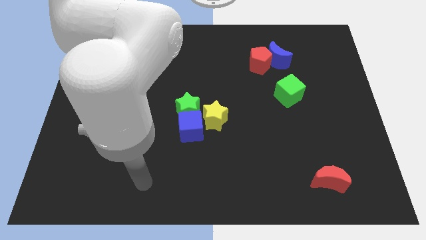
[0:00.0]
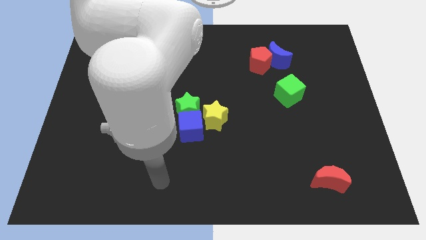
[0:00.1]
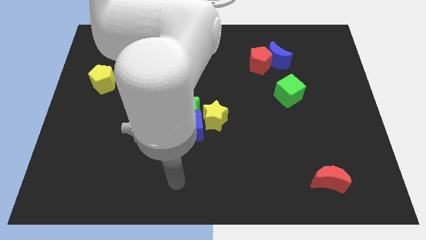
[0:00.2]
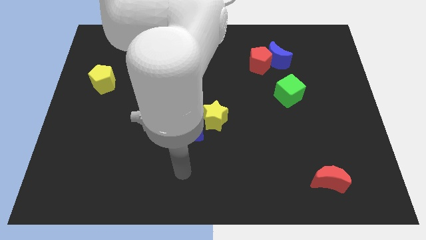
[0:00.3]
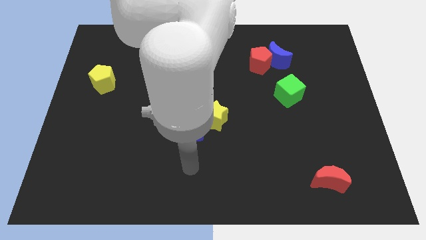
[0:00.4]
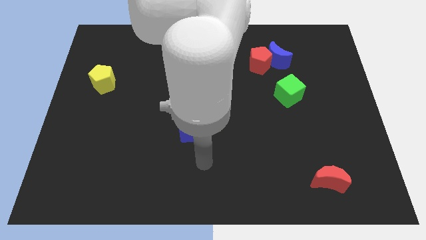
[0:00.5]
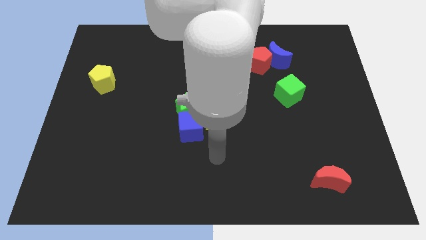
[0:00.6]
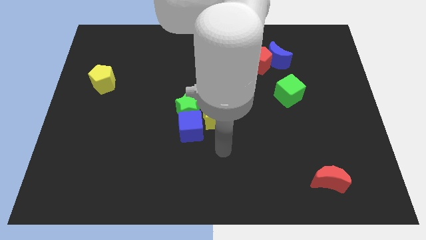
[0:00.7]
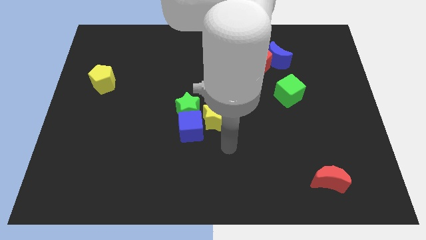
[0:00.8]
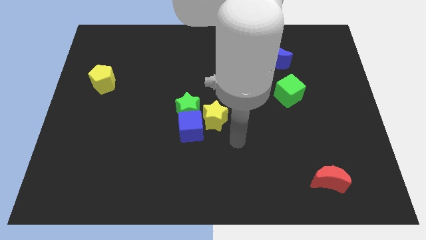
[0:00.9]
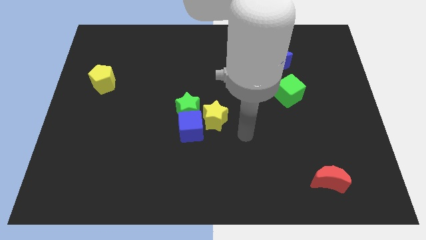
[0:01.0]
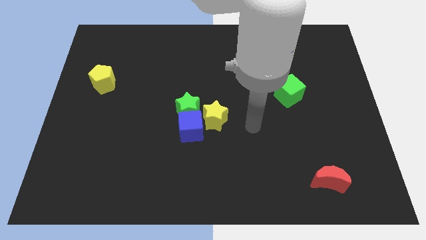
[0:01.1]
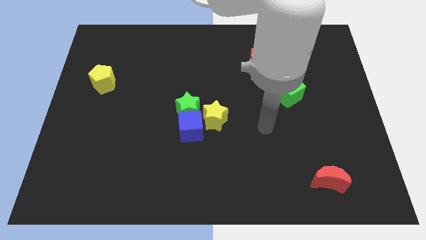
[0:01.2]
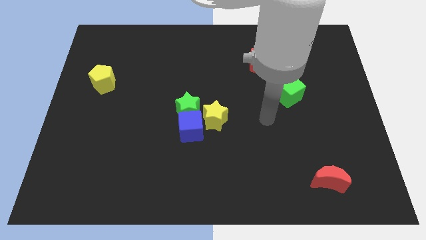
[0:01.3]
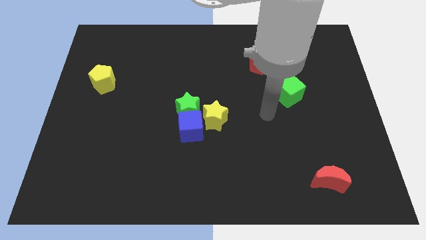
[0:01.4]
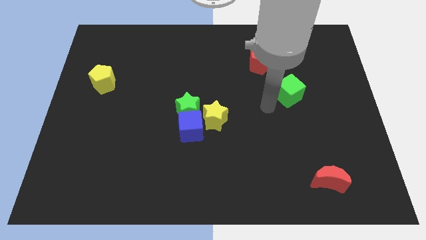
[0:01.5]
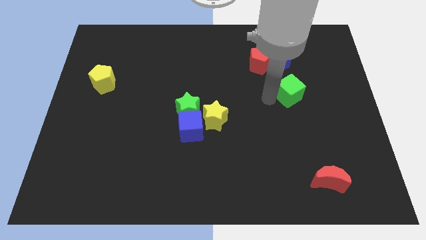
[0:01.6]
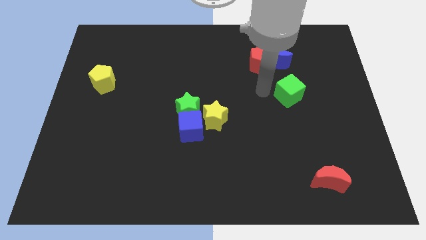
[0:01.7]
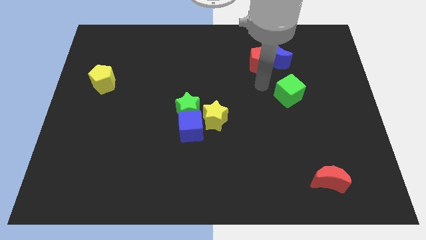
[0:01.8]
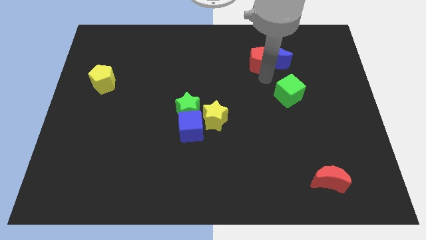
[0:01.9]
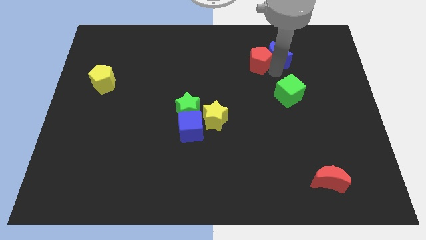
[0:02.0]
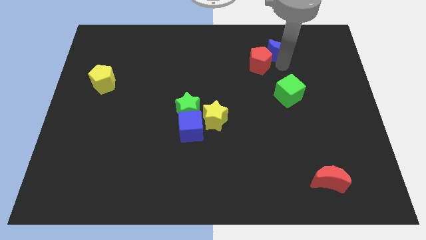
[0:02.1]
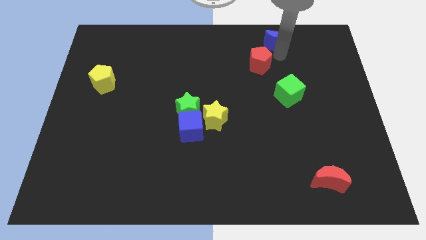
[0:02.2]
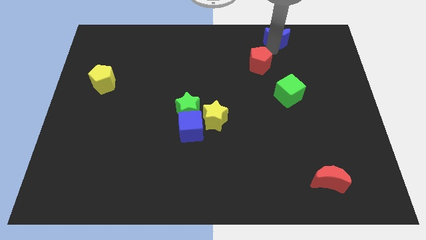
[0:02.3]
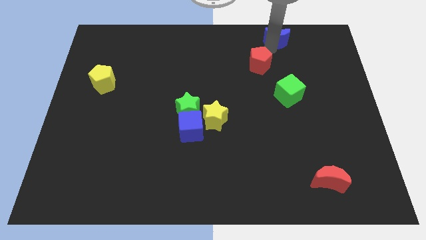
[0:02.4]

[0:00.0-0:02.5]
move the red pentagon away from the blue moon

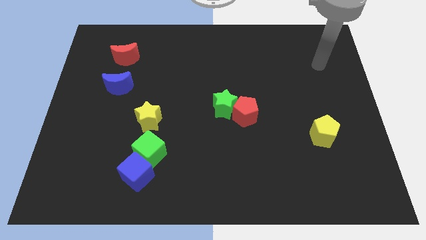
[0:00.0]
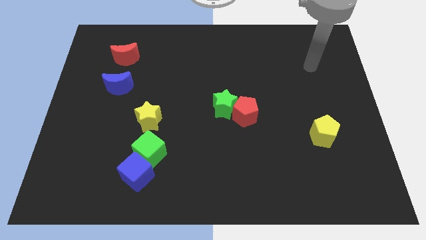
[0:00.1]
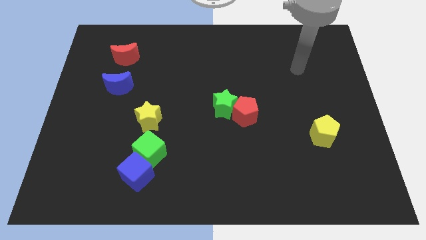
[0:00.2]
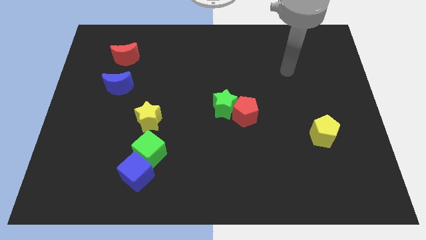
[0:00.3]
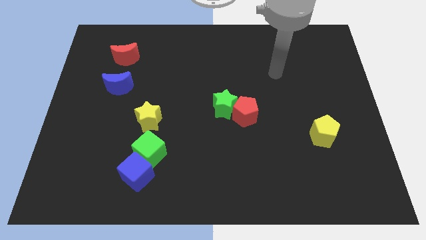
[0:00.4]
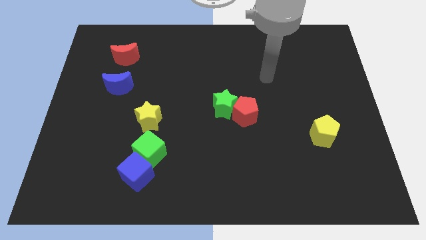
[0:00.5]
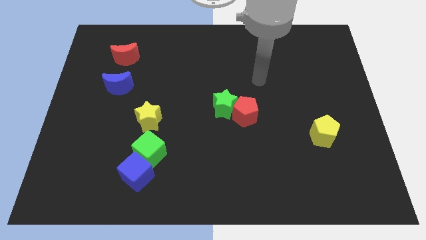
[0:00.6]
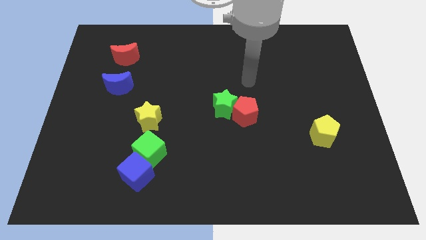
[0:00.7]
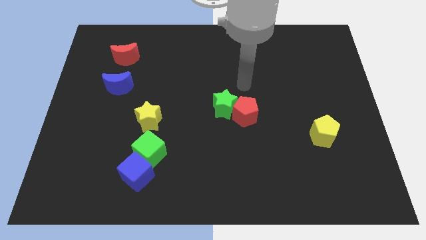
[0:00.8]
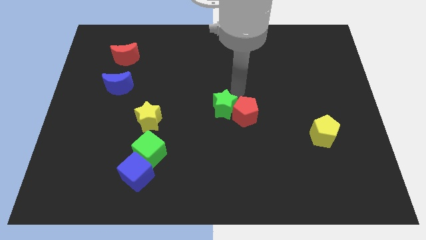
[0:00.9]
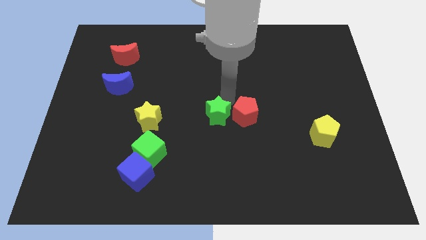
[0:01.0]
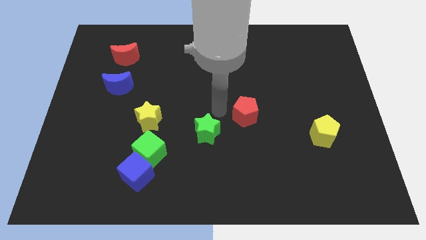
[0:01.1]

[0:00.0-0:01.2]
pull the red pentagon apart from the green star

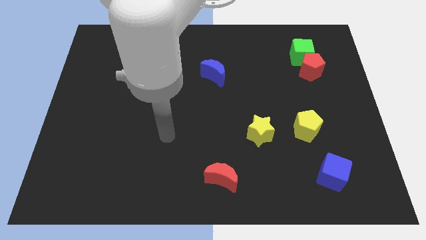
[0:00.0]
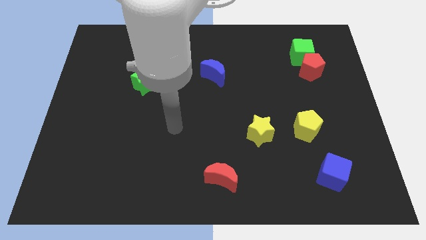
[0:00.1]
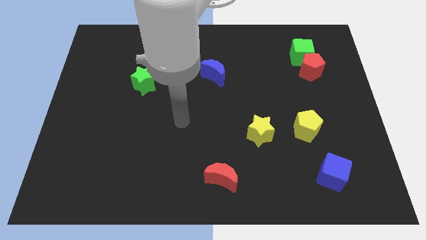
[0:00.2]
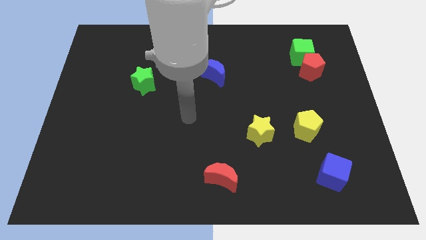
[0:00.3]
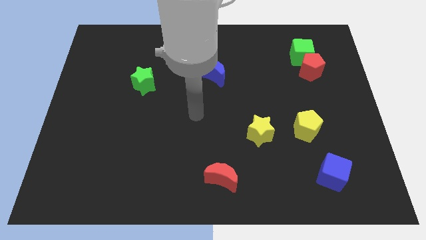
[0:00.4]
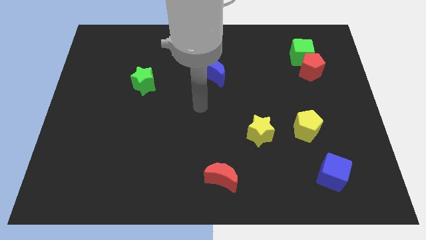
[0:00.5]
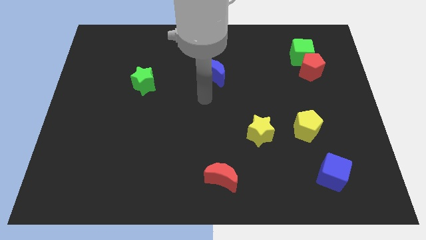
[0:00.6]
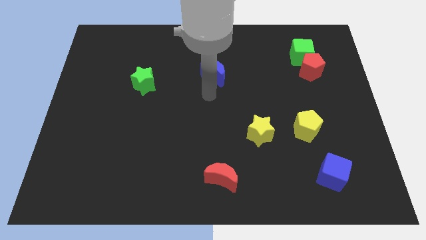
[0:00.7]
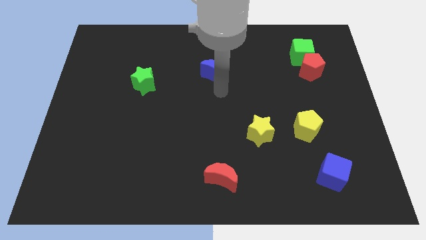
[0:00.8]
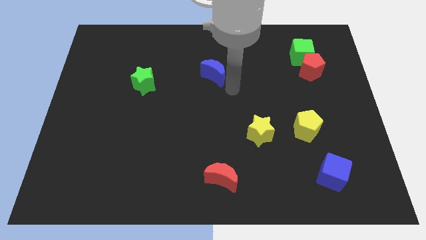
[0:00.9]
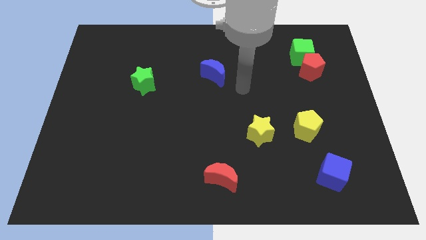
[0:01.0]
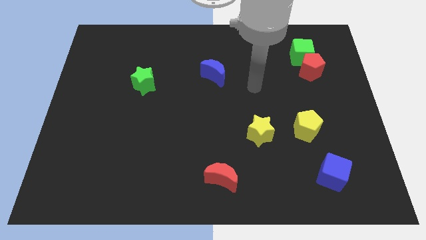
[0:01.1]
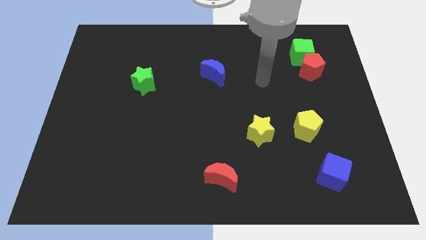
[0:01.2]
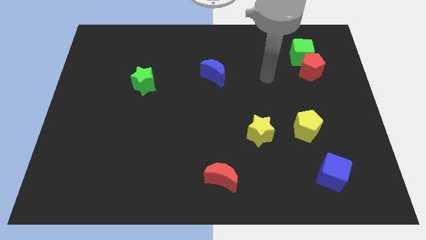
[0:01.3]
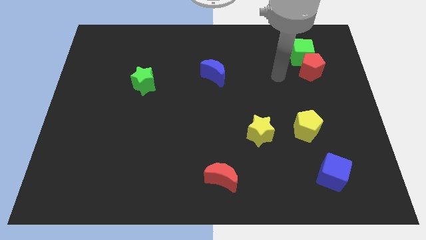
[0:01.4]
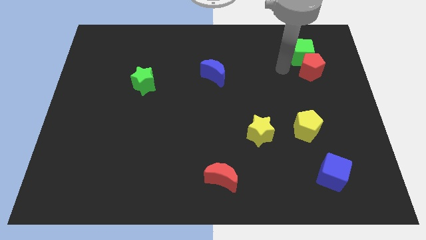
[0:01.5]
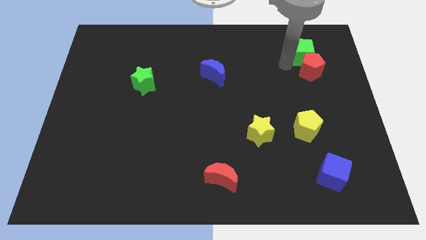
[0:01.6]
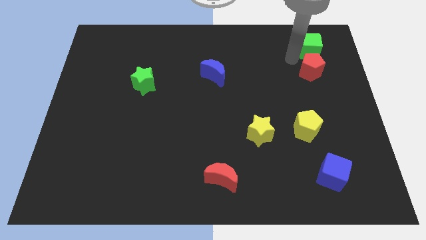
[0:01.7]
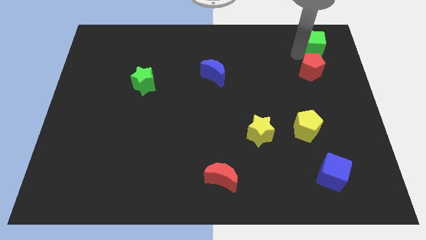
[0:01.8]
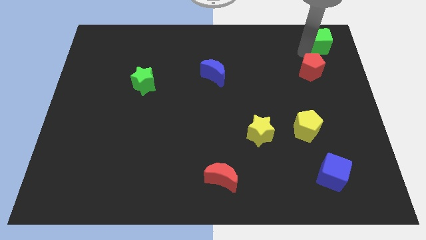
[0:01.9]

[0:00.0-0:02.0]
pull the red pentagon apart from the green cube

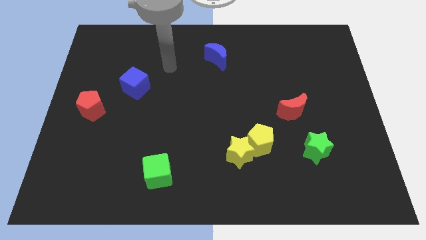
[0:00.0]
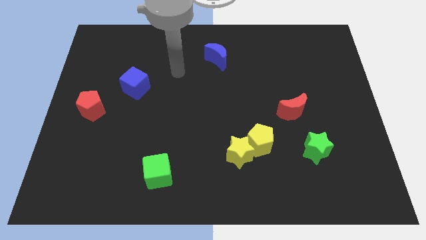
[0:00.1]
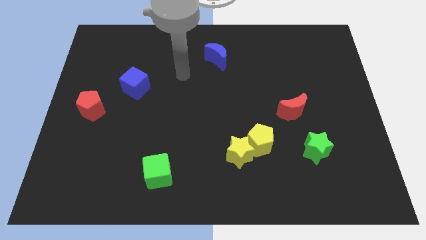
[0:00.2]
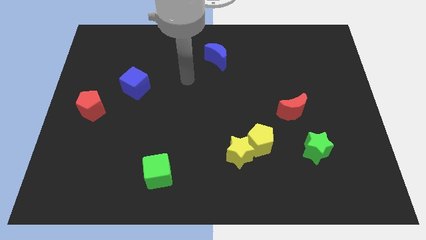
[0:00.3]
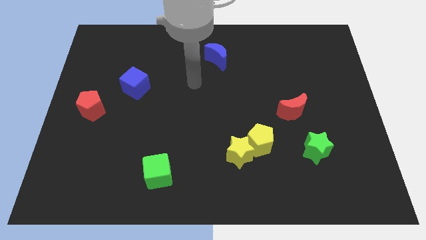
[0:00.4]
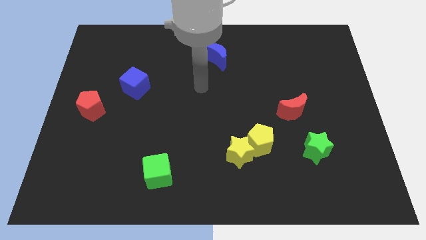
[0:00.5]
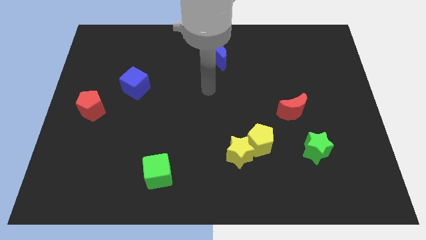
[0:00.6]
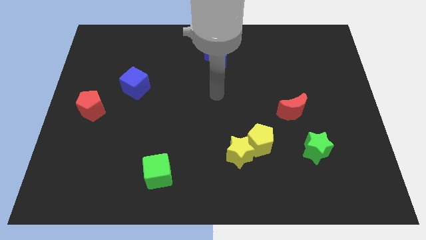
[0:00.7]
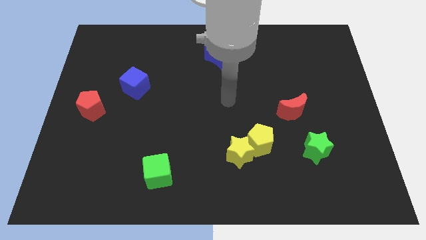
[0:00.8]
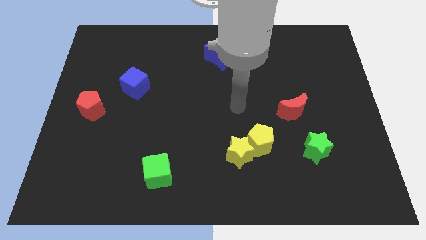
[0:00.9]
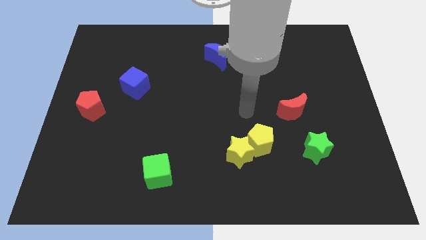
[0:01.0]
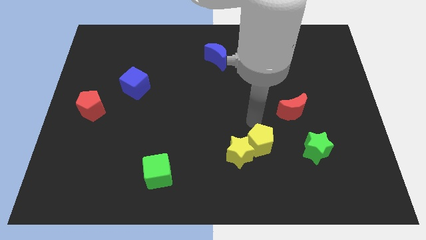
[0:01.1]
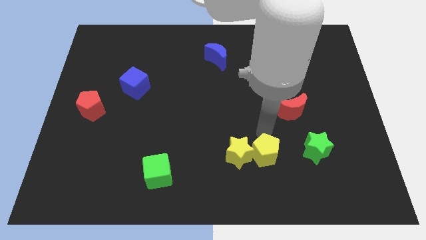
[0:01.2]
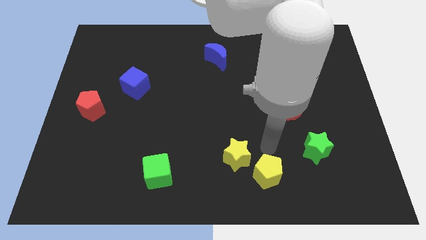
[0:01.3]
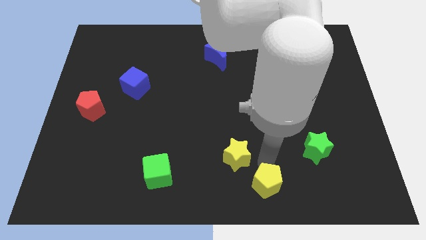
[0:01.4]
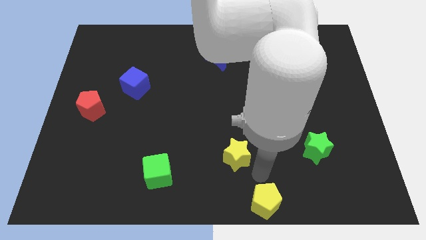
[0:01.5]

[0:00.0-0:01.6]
pull the yellow star apart from the yellow pentagon

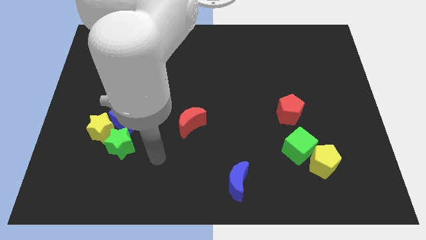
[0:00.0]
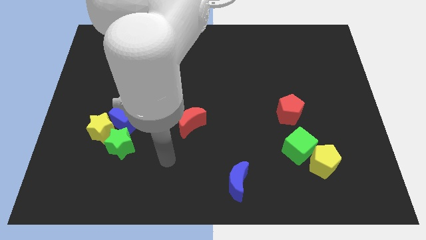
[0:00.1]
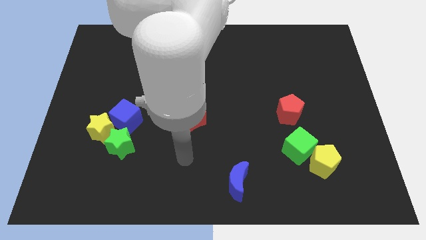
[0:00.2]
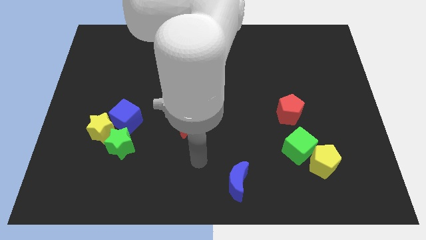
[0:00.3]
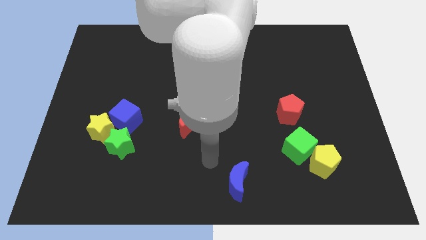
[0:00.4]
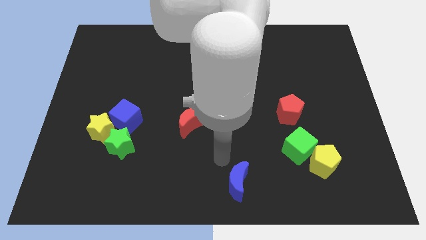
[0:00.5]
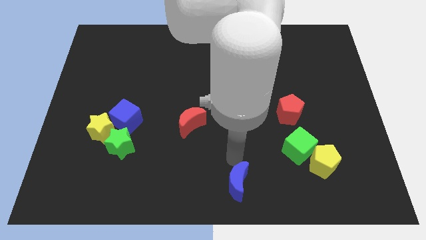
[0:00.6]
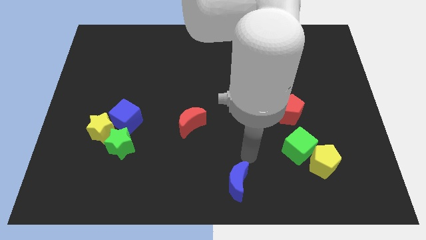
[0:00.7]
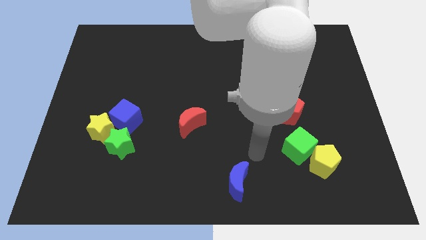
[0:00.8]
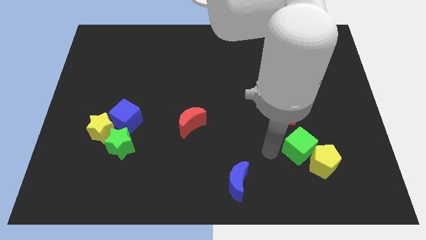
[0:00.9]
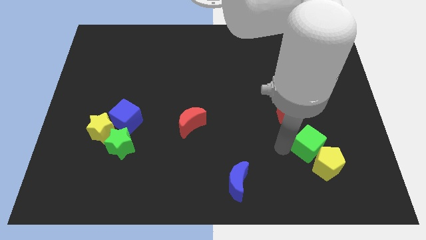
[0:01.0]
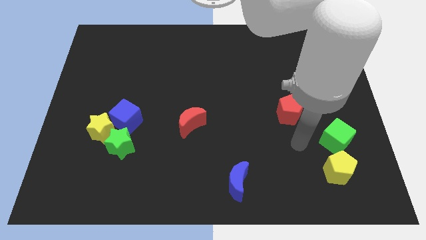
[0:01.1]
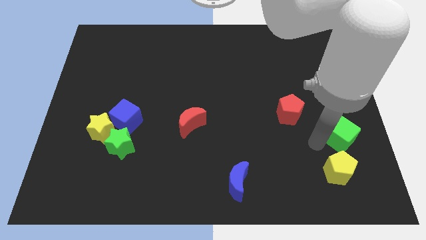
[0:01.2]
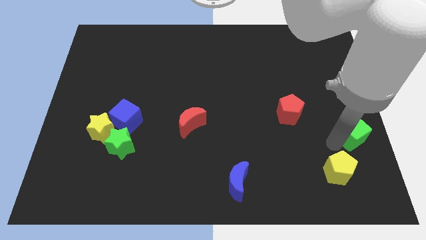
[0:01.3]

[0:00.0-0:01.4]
separate the yellow pentagon from the green cube

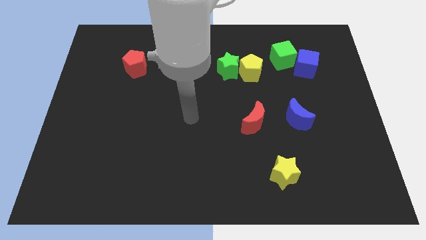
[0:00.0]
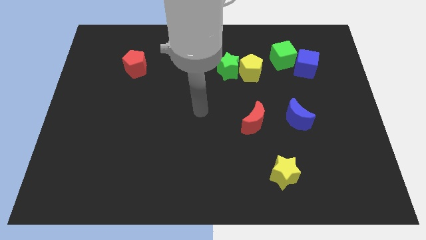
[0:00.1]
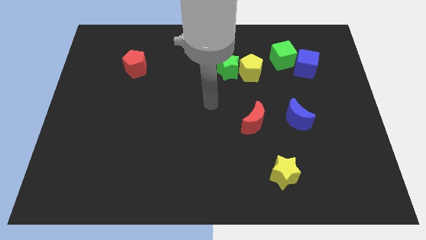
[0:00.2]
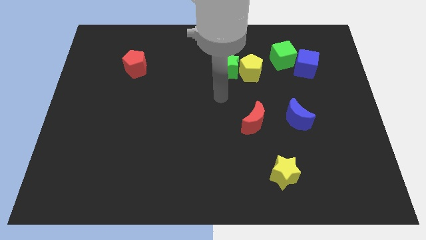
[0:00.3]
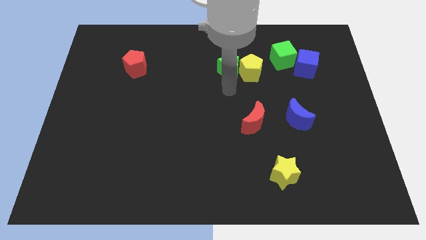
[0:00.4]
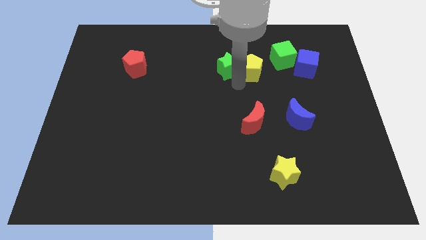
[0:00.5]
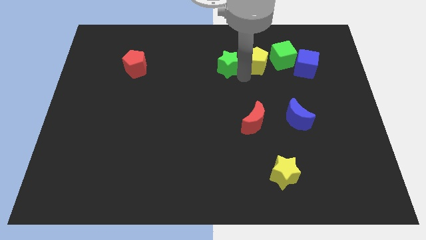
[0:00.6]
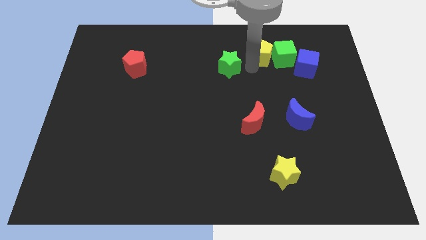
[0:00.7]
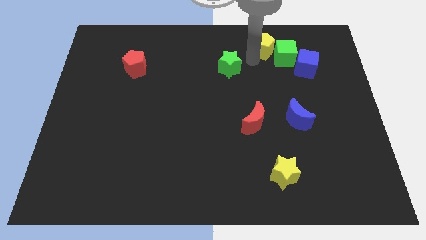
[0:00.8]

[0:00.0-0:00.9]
pull the green star apart from the yellow pentagon
